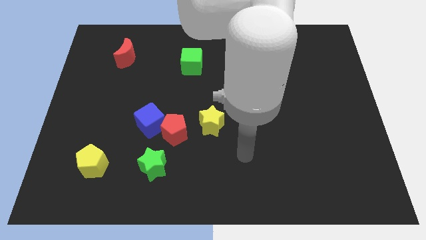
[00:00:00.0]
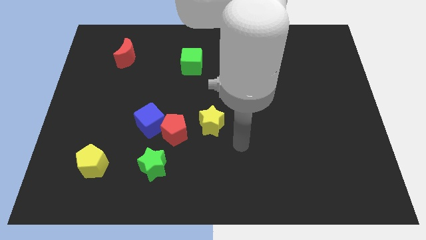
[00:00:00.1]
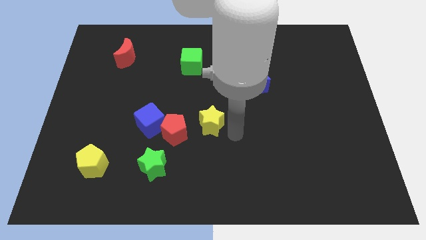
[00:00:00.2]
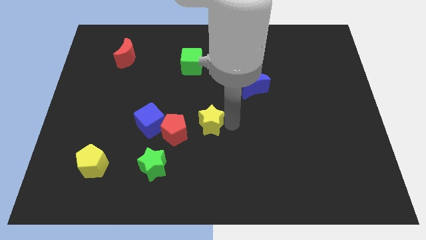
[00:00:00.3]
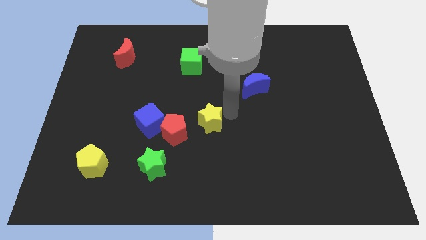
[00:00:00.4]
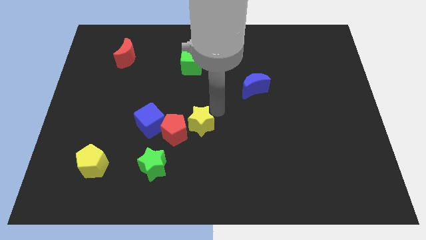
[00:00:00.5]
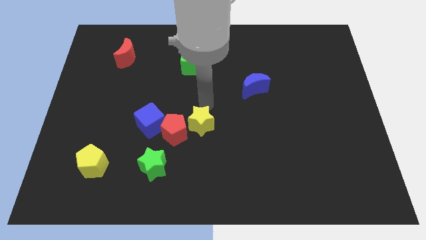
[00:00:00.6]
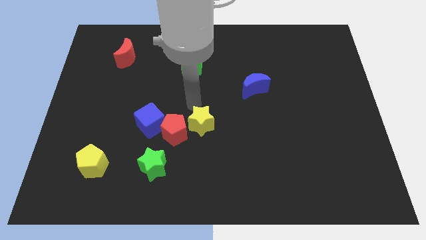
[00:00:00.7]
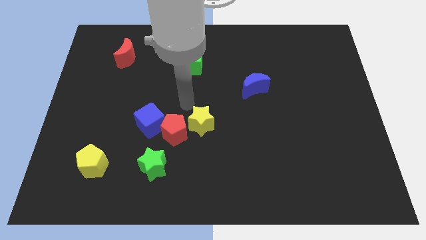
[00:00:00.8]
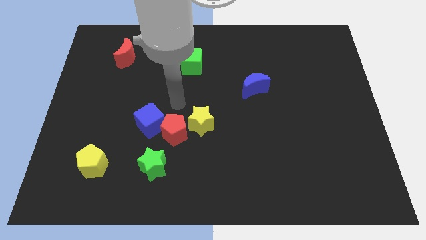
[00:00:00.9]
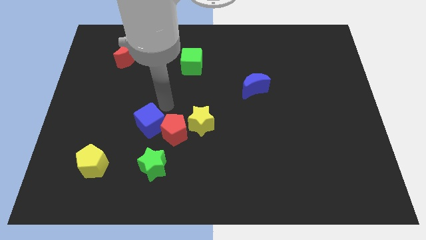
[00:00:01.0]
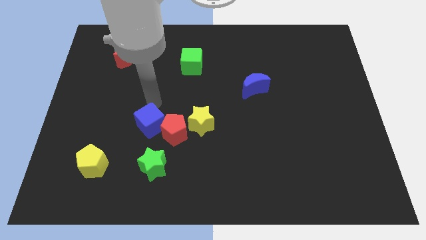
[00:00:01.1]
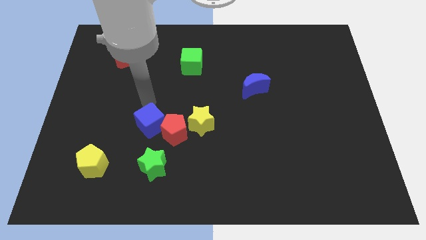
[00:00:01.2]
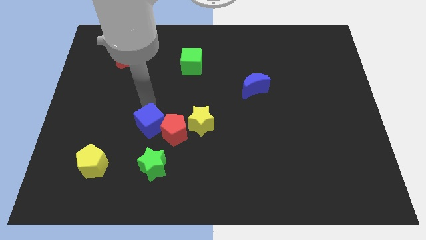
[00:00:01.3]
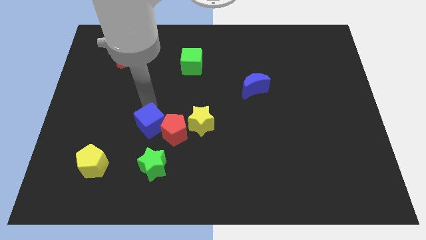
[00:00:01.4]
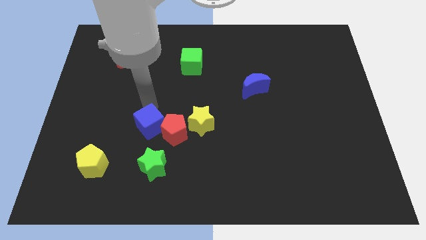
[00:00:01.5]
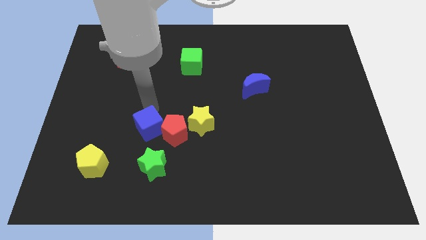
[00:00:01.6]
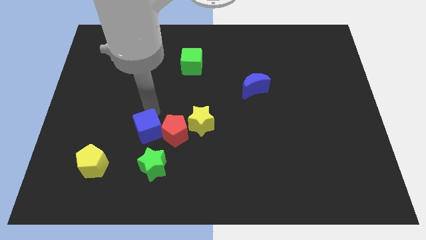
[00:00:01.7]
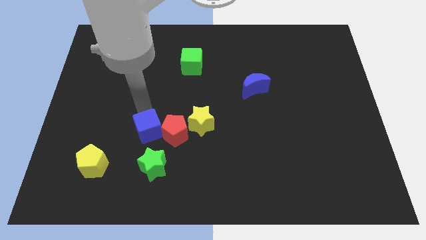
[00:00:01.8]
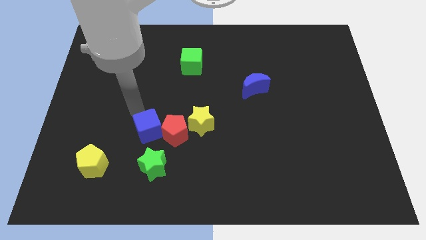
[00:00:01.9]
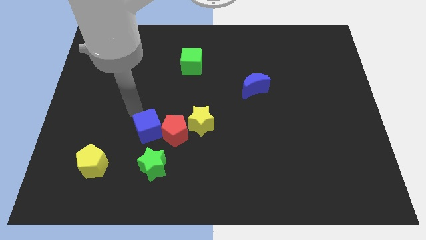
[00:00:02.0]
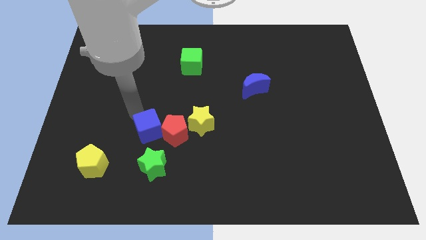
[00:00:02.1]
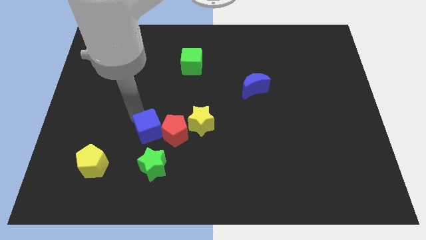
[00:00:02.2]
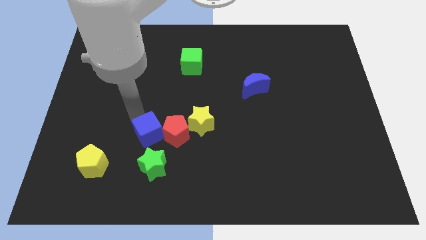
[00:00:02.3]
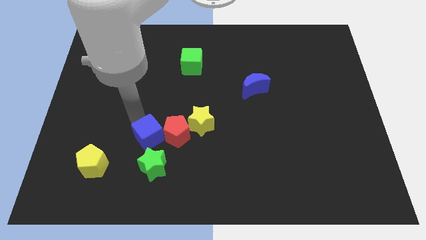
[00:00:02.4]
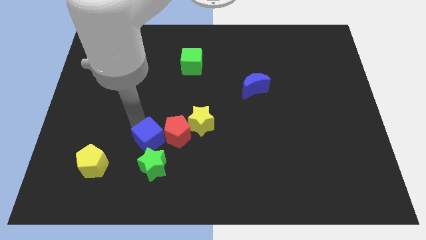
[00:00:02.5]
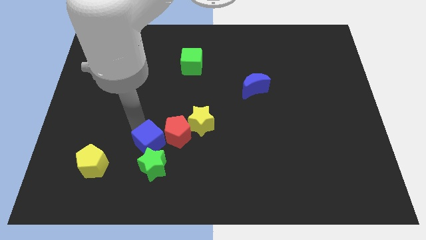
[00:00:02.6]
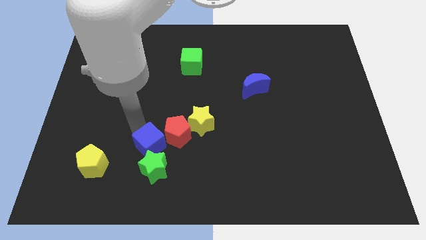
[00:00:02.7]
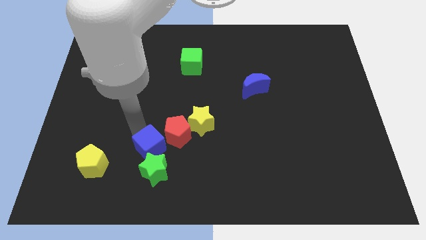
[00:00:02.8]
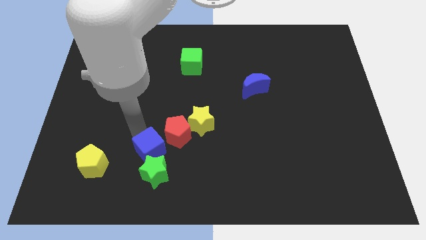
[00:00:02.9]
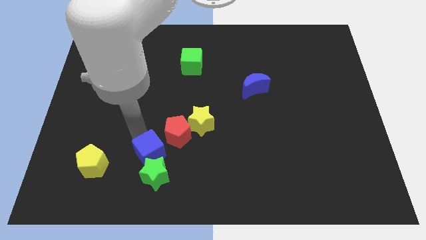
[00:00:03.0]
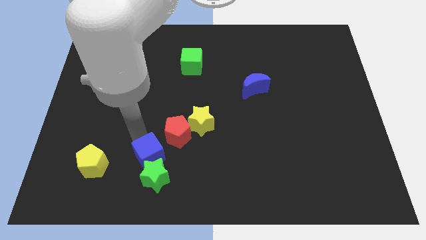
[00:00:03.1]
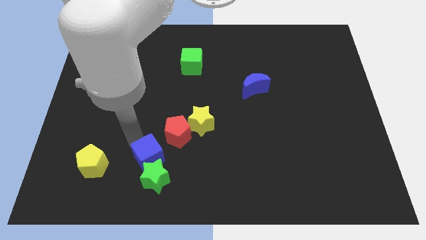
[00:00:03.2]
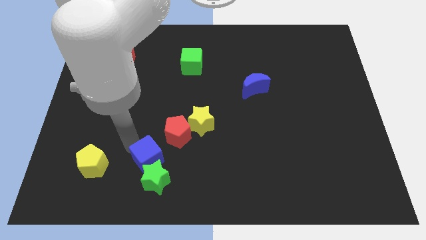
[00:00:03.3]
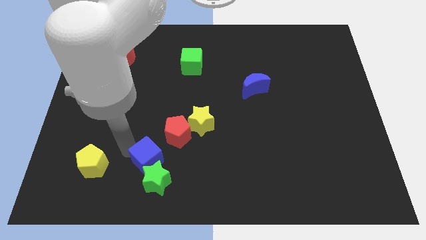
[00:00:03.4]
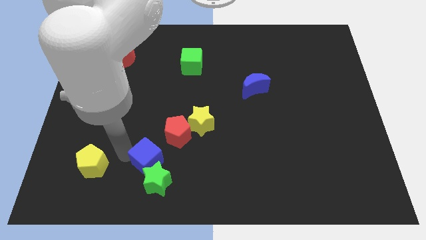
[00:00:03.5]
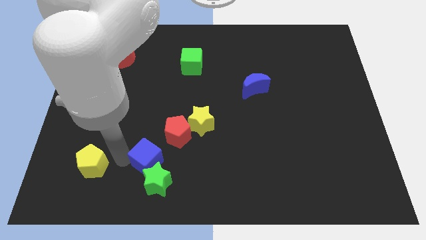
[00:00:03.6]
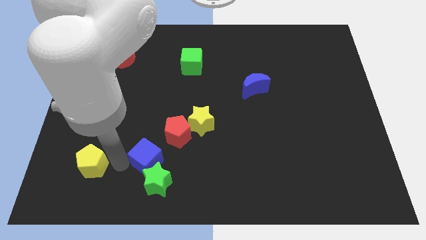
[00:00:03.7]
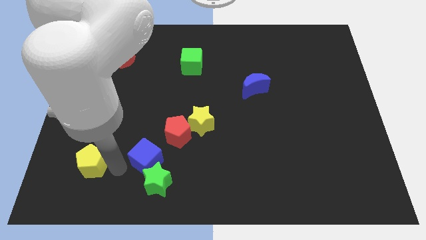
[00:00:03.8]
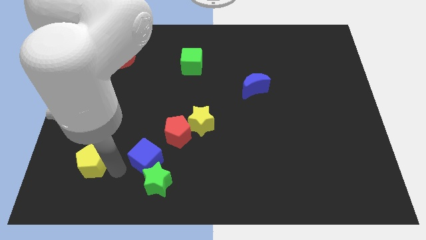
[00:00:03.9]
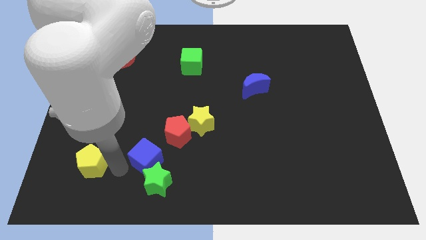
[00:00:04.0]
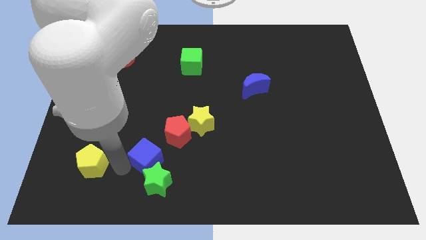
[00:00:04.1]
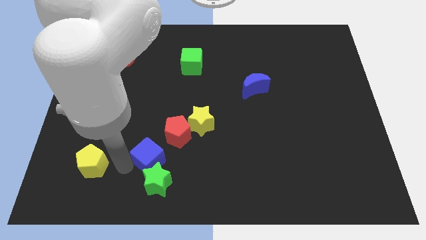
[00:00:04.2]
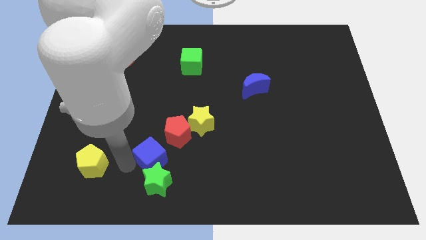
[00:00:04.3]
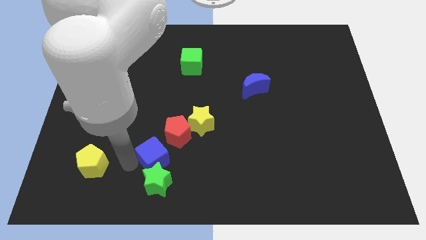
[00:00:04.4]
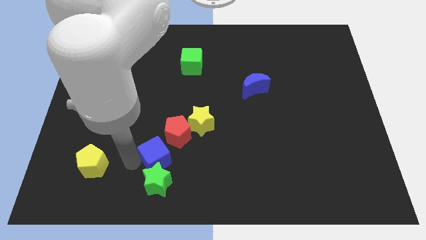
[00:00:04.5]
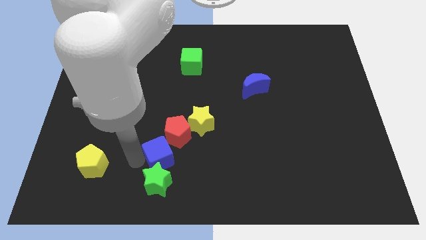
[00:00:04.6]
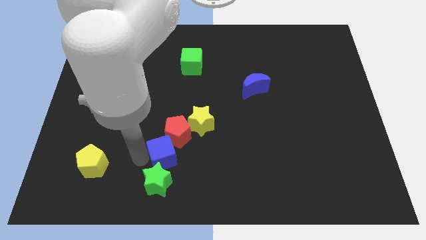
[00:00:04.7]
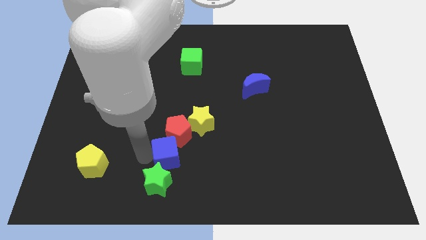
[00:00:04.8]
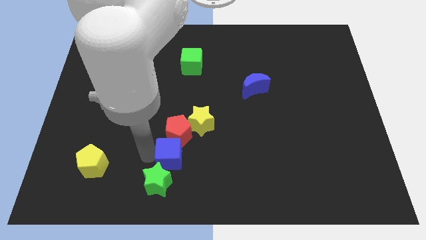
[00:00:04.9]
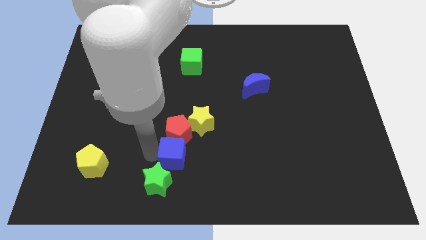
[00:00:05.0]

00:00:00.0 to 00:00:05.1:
move the blue cube to the bottom right of the red pentagon

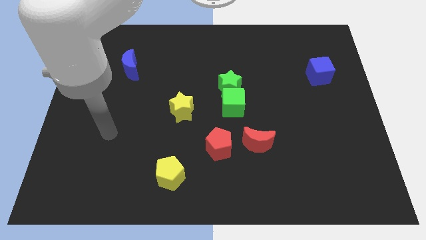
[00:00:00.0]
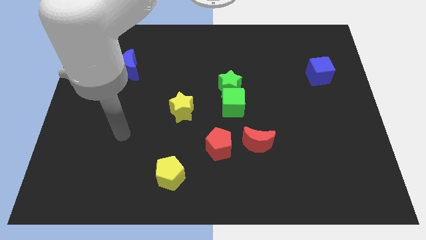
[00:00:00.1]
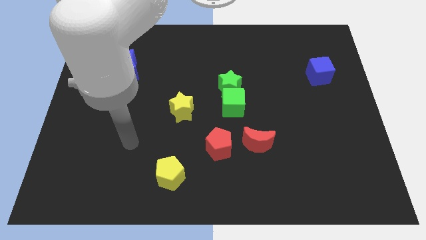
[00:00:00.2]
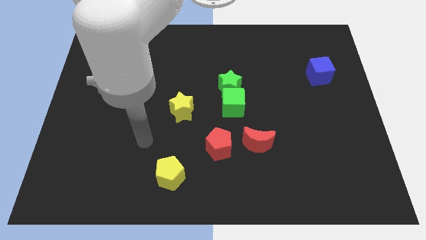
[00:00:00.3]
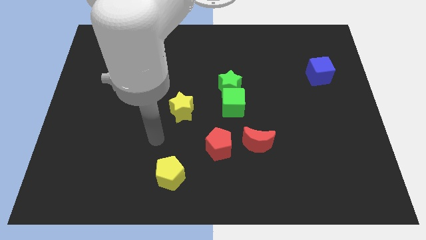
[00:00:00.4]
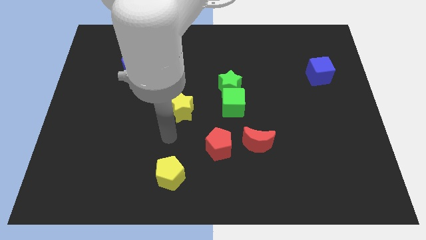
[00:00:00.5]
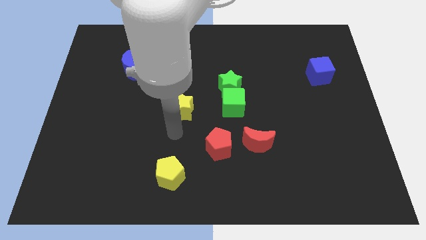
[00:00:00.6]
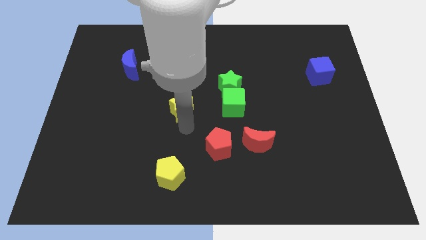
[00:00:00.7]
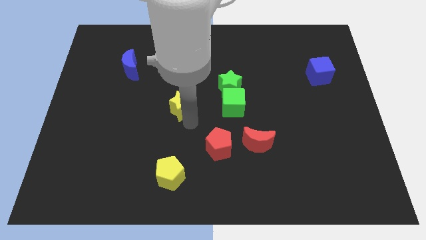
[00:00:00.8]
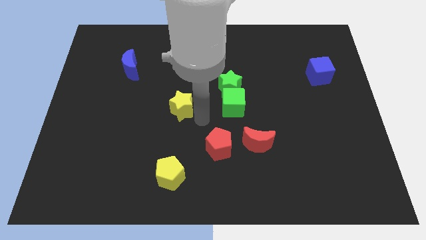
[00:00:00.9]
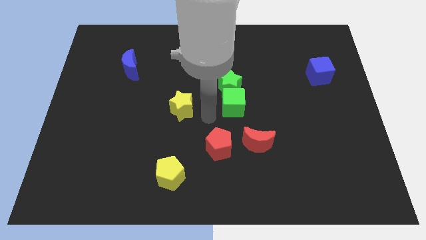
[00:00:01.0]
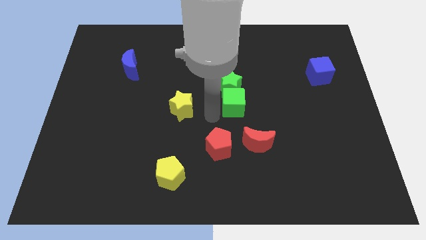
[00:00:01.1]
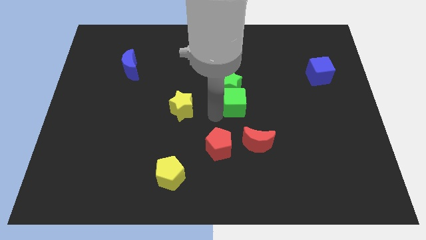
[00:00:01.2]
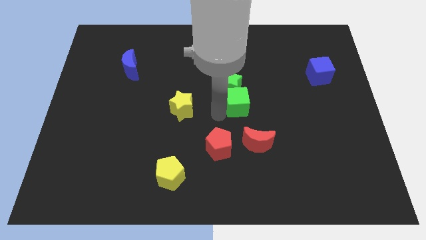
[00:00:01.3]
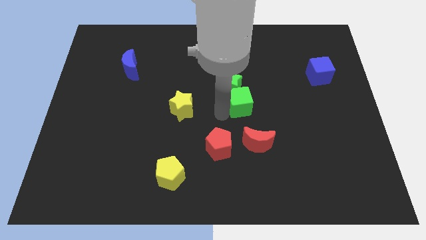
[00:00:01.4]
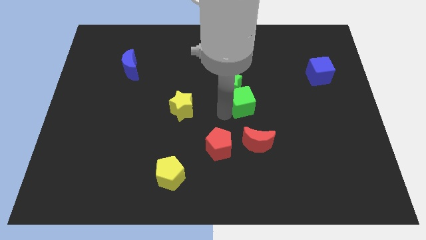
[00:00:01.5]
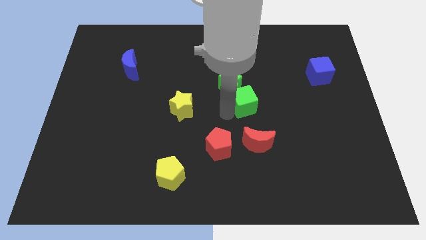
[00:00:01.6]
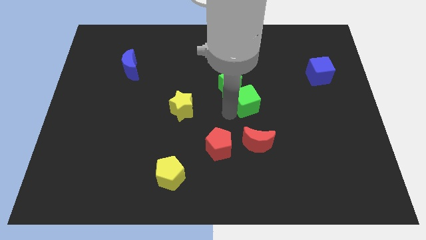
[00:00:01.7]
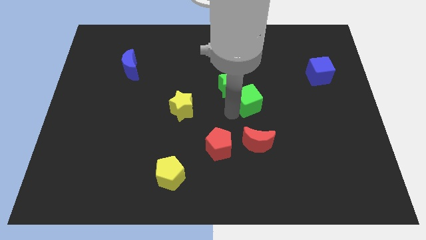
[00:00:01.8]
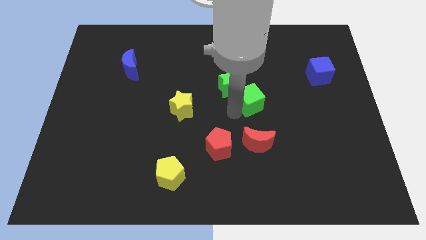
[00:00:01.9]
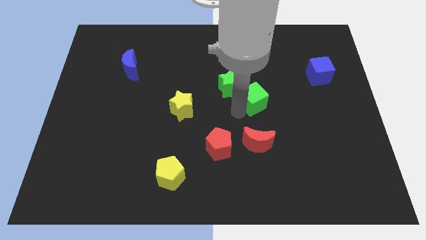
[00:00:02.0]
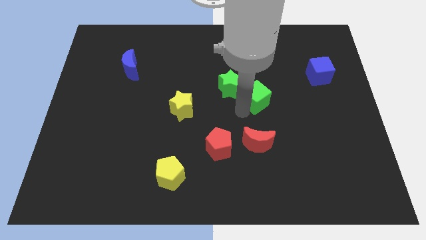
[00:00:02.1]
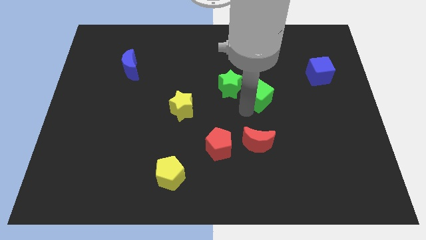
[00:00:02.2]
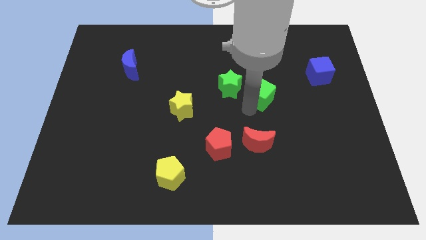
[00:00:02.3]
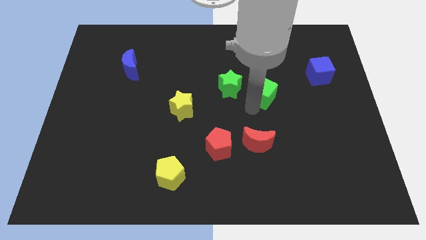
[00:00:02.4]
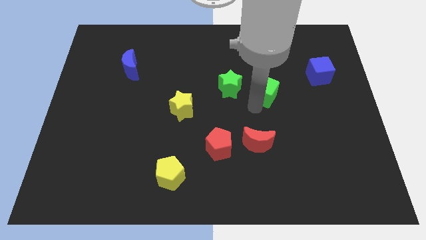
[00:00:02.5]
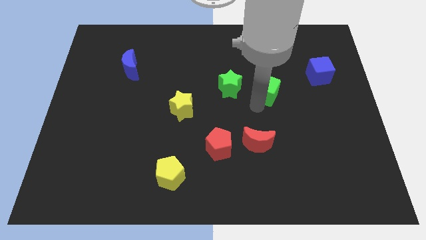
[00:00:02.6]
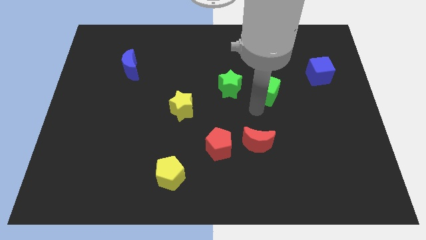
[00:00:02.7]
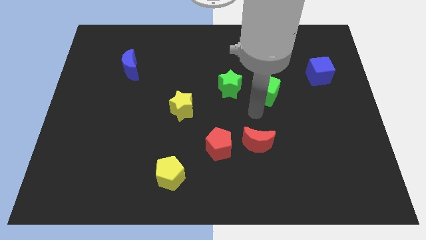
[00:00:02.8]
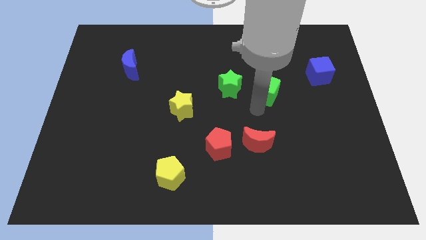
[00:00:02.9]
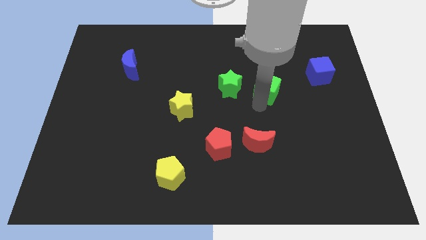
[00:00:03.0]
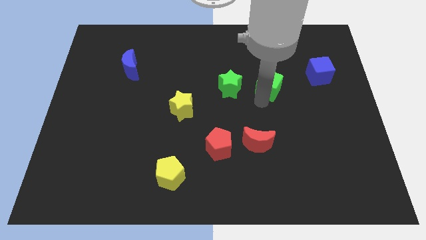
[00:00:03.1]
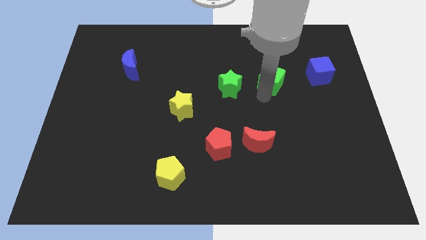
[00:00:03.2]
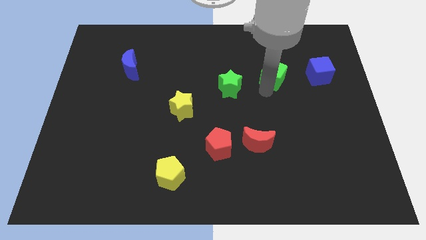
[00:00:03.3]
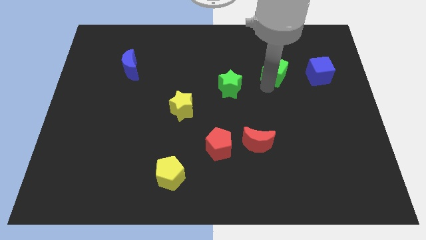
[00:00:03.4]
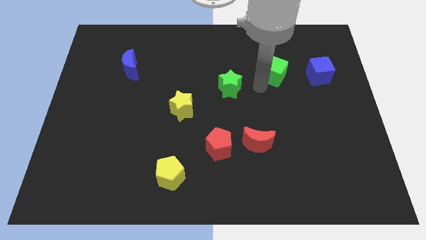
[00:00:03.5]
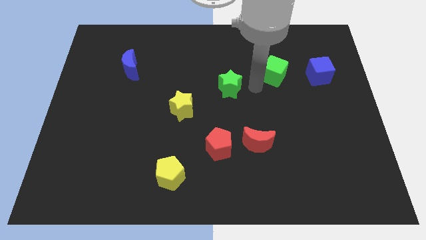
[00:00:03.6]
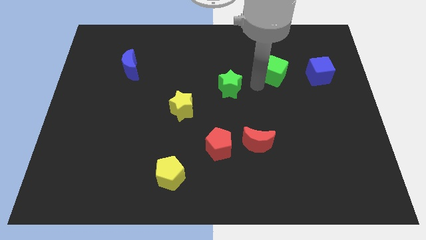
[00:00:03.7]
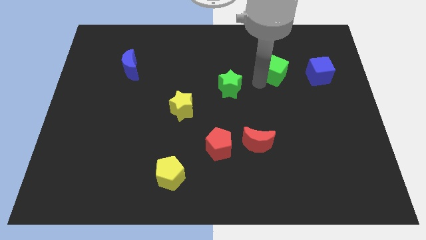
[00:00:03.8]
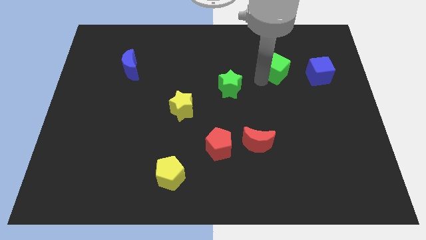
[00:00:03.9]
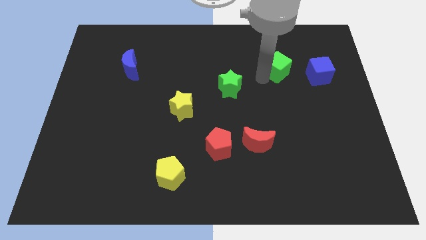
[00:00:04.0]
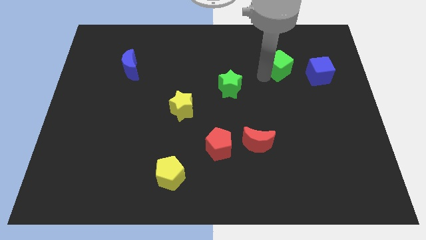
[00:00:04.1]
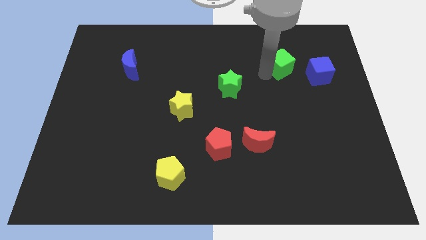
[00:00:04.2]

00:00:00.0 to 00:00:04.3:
put the green cube to the top left of the blue cube
